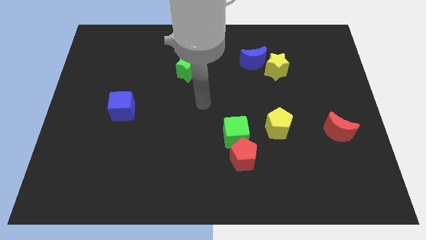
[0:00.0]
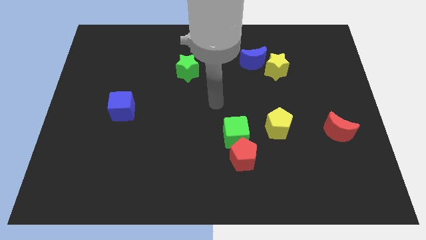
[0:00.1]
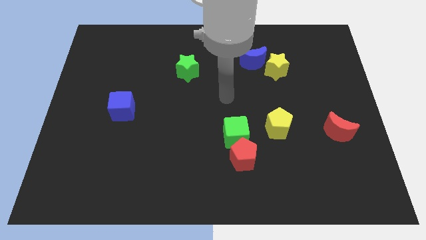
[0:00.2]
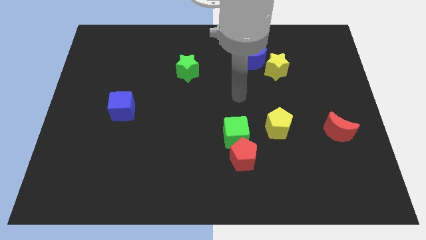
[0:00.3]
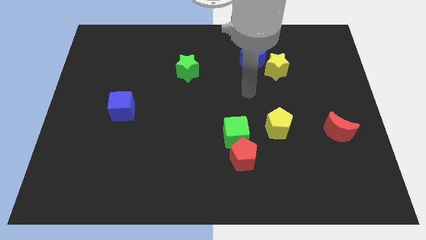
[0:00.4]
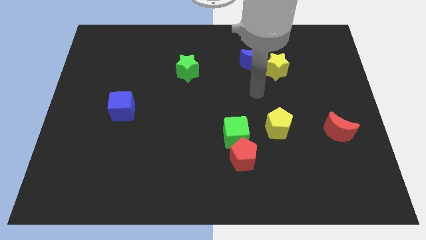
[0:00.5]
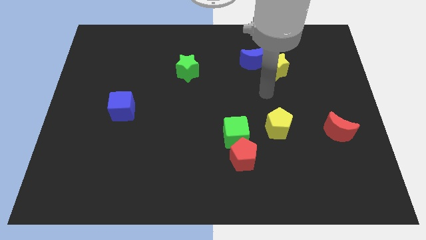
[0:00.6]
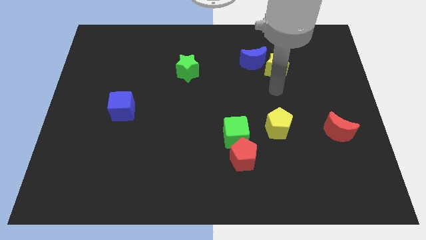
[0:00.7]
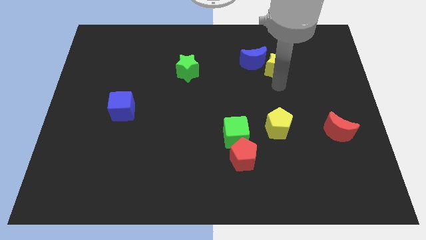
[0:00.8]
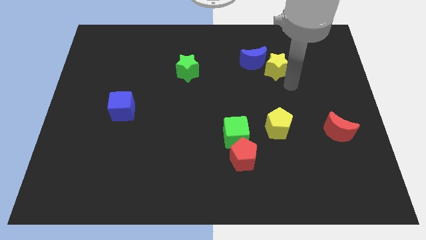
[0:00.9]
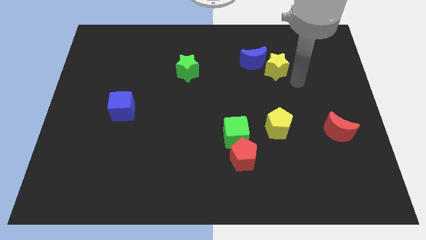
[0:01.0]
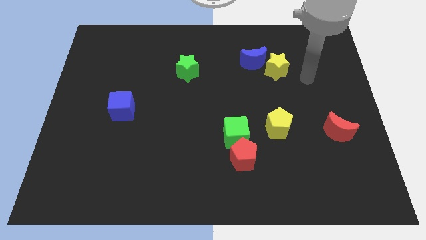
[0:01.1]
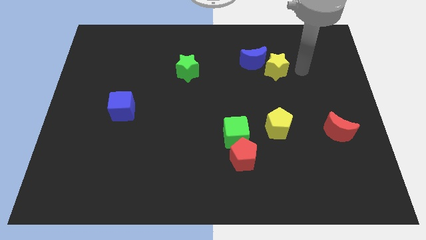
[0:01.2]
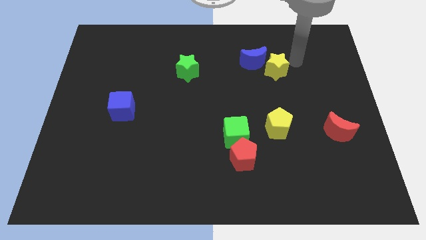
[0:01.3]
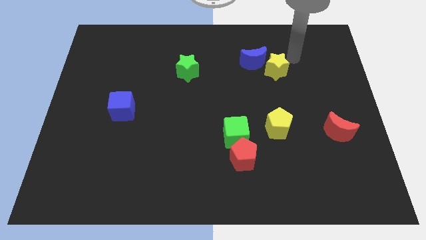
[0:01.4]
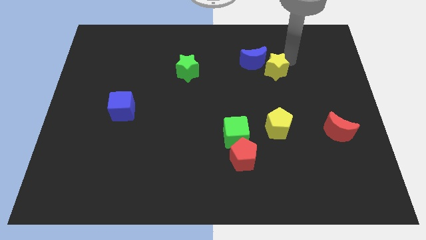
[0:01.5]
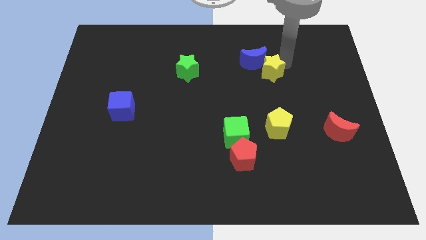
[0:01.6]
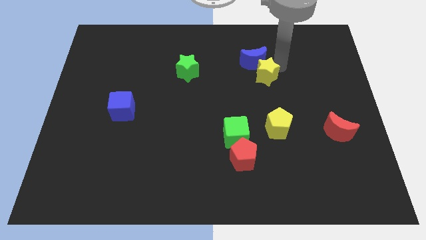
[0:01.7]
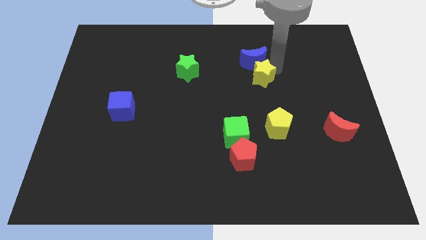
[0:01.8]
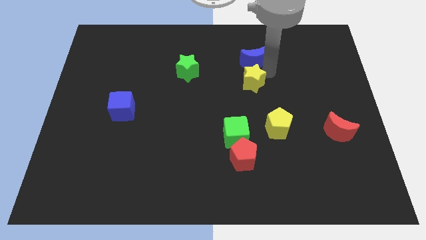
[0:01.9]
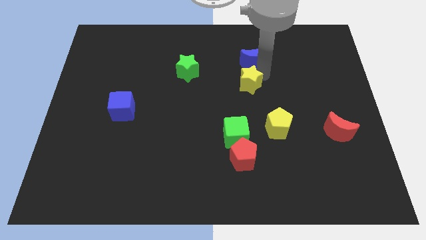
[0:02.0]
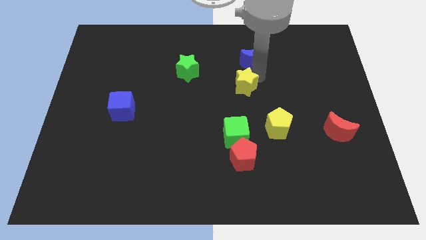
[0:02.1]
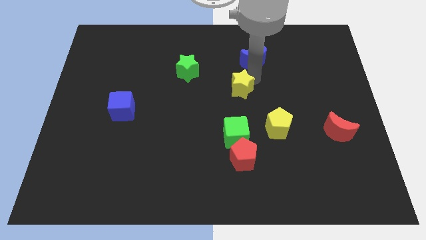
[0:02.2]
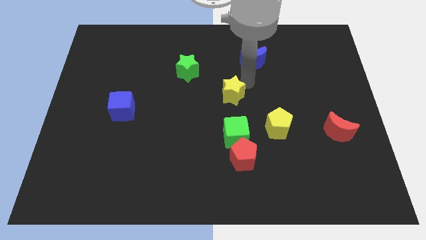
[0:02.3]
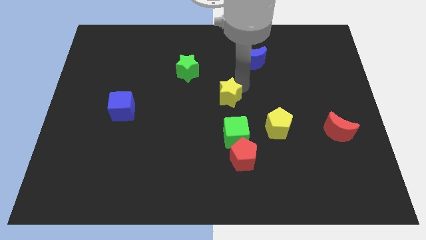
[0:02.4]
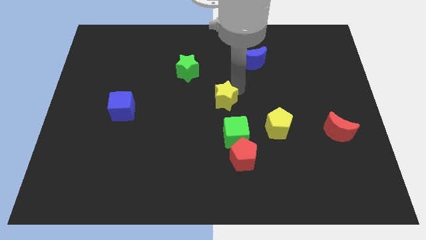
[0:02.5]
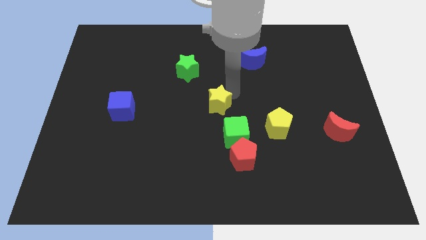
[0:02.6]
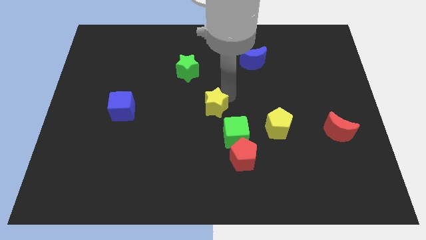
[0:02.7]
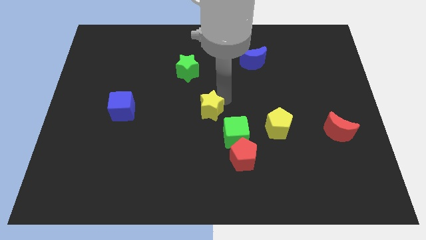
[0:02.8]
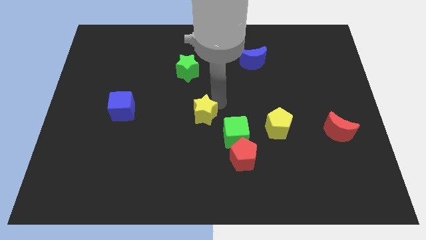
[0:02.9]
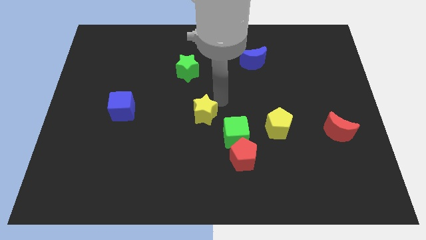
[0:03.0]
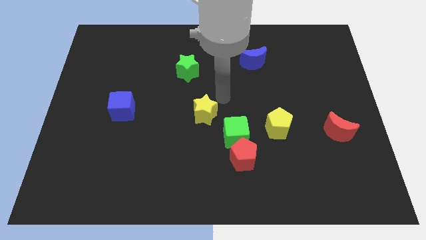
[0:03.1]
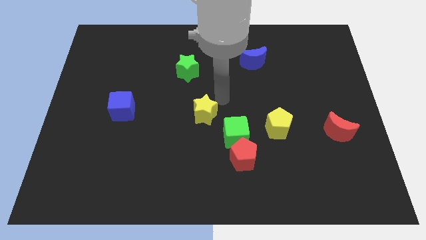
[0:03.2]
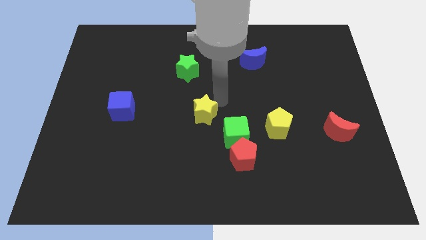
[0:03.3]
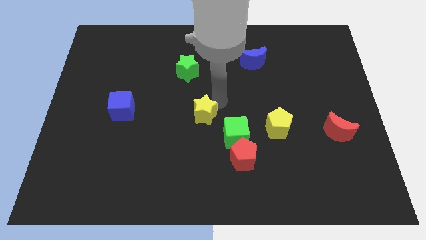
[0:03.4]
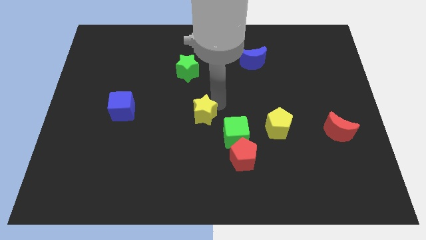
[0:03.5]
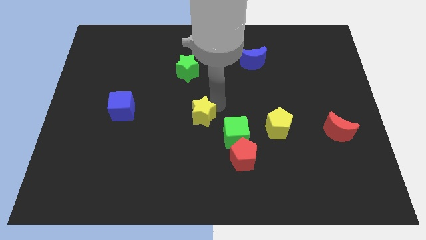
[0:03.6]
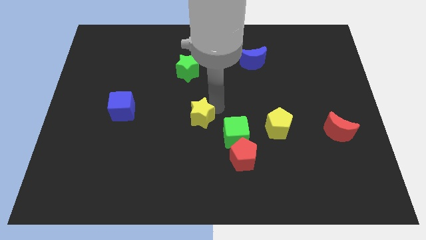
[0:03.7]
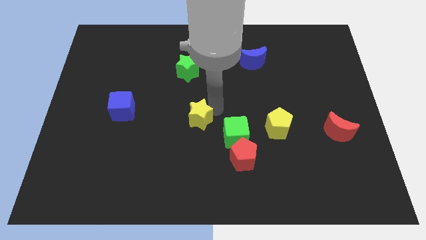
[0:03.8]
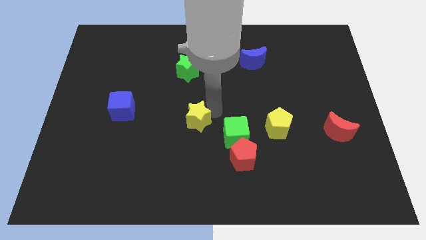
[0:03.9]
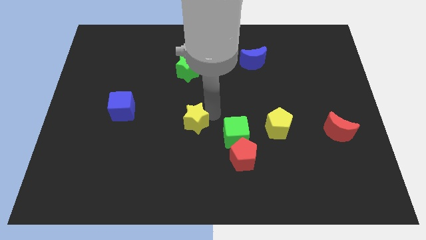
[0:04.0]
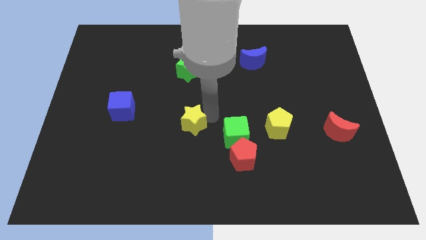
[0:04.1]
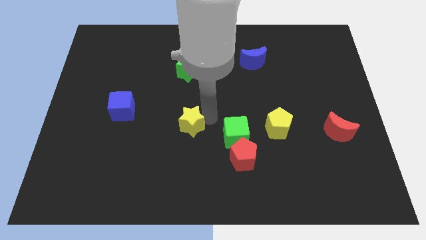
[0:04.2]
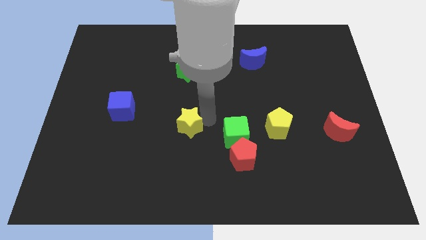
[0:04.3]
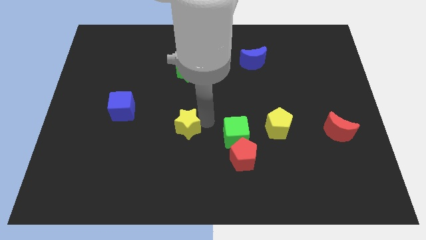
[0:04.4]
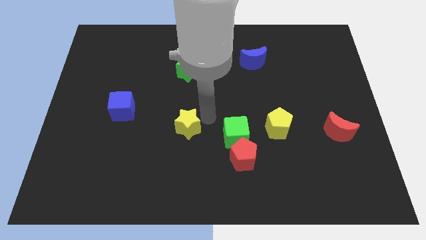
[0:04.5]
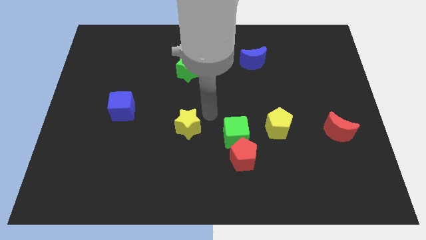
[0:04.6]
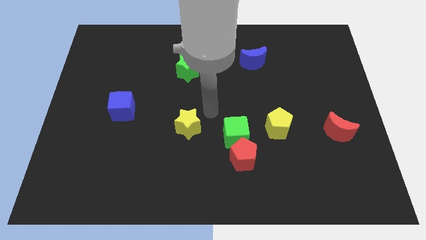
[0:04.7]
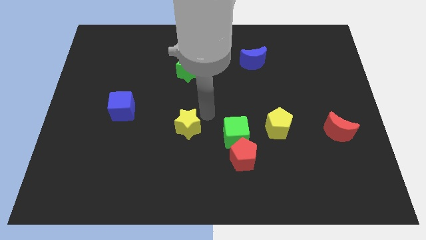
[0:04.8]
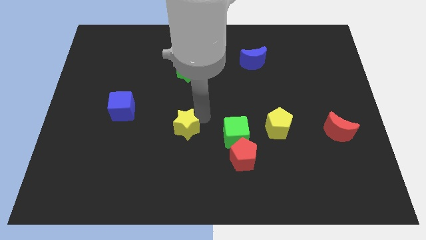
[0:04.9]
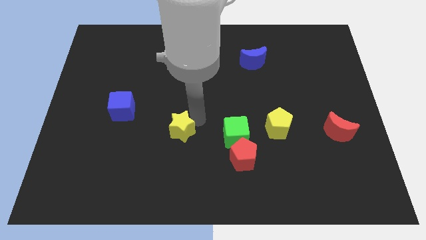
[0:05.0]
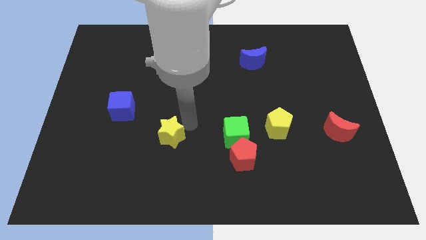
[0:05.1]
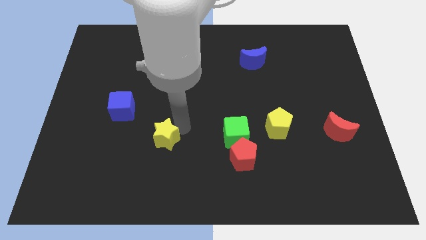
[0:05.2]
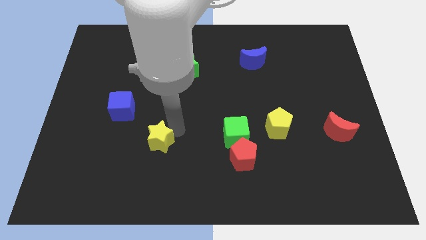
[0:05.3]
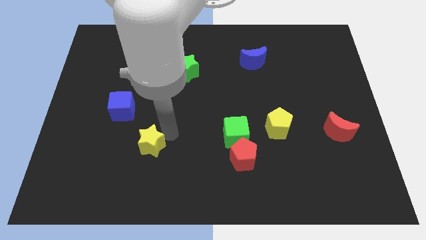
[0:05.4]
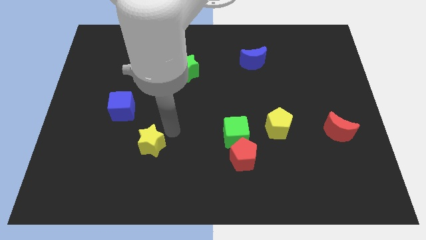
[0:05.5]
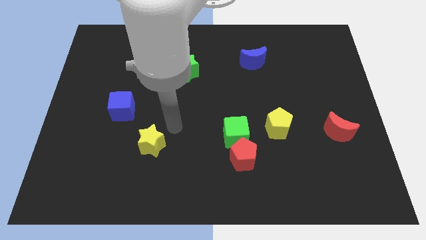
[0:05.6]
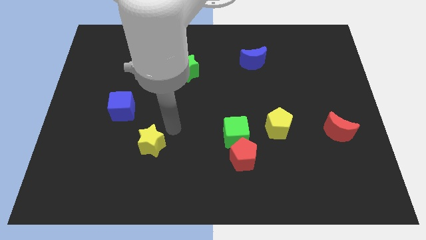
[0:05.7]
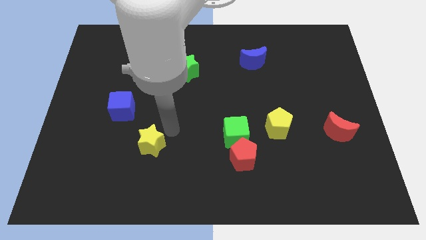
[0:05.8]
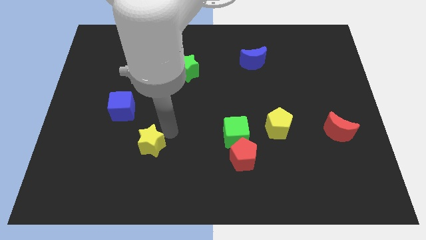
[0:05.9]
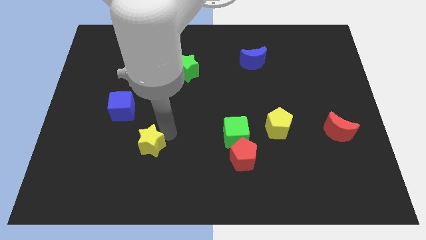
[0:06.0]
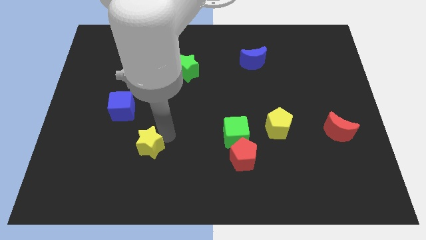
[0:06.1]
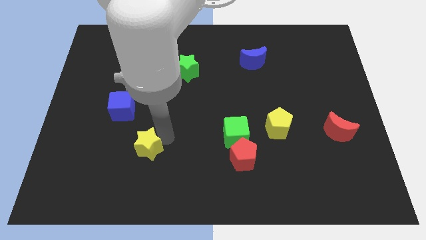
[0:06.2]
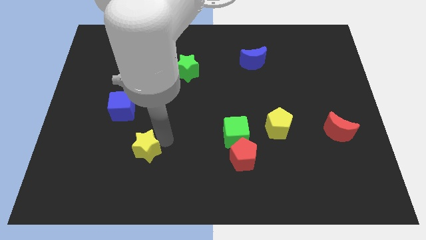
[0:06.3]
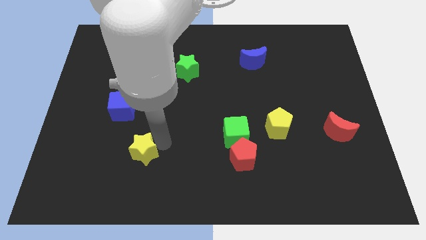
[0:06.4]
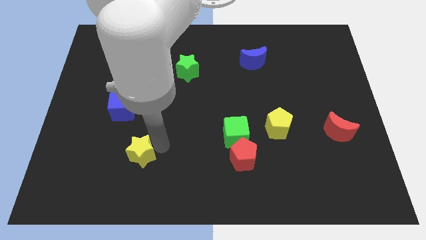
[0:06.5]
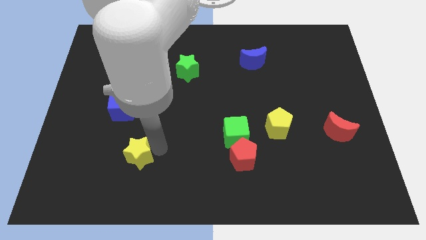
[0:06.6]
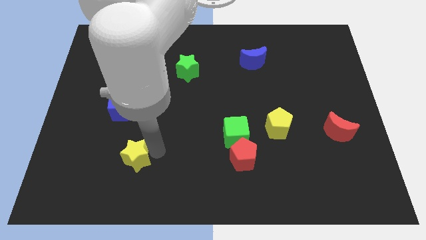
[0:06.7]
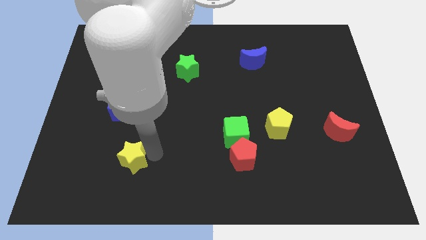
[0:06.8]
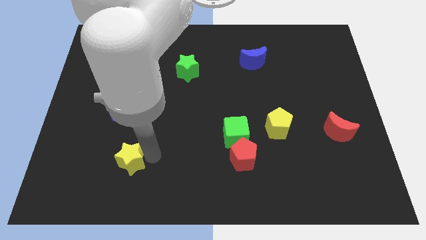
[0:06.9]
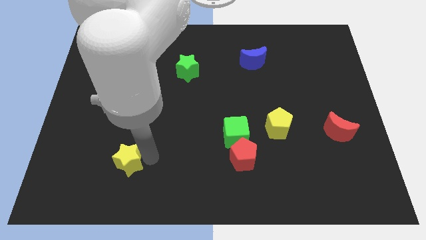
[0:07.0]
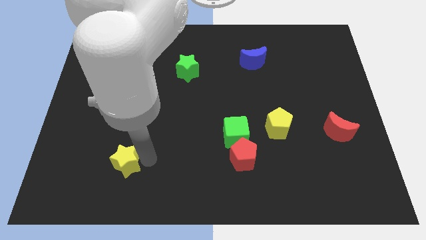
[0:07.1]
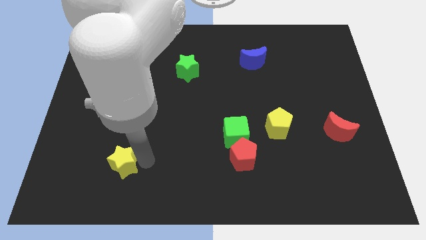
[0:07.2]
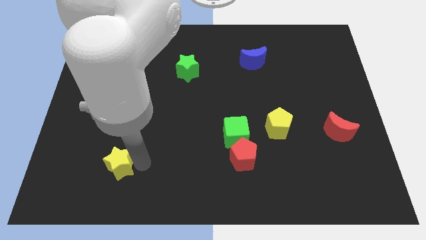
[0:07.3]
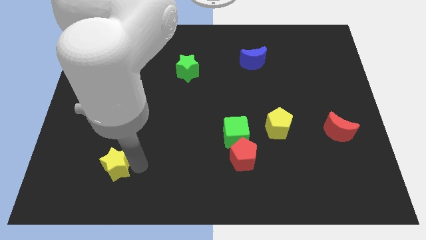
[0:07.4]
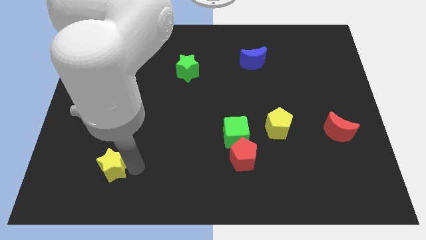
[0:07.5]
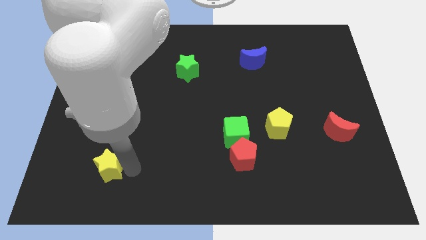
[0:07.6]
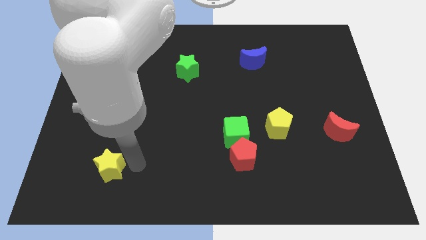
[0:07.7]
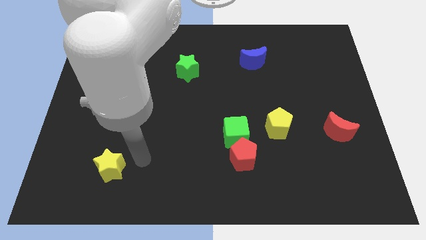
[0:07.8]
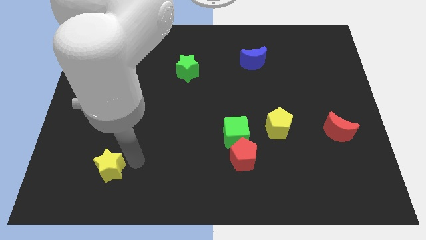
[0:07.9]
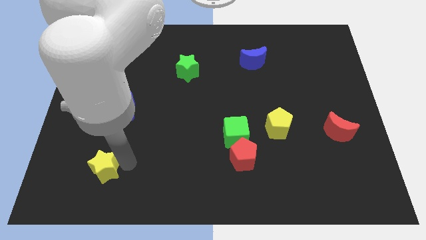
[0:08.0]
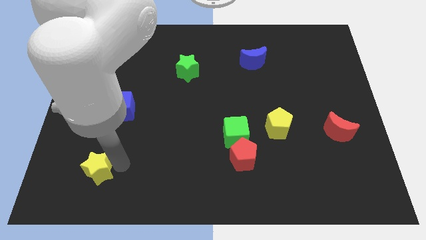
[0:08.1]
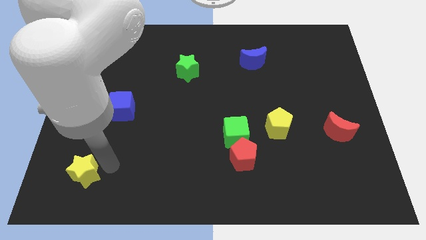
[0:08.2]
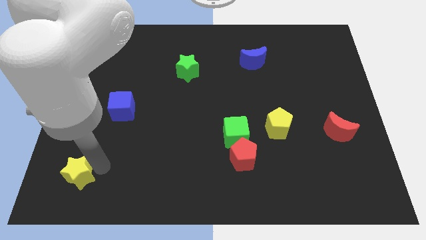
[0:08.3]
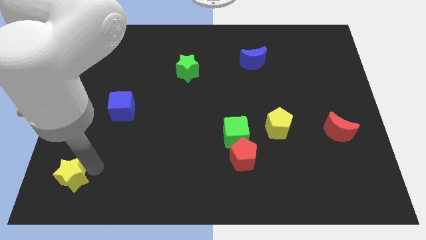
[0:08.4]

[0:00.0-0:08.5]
move the yellow star to the bottom left
